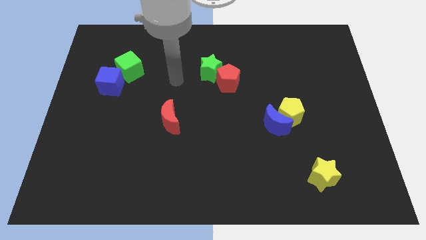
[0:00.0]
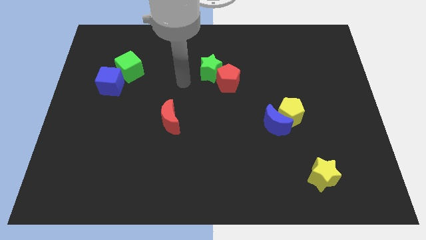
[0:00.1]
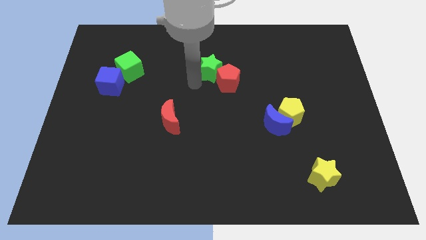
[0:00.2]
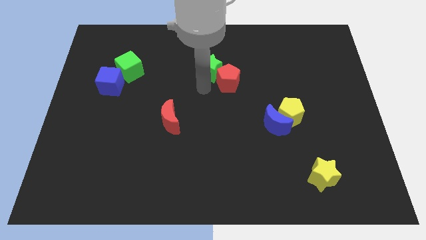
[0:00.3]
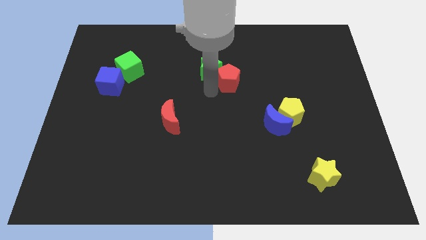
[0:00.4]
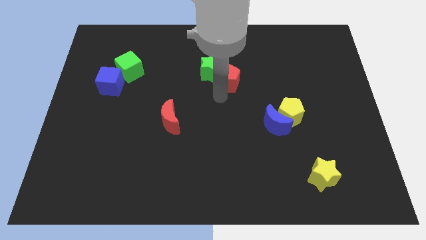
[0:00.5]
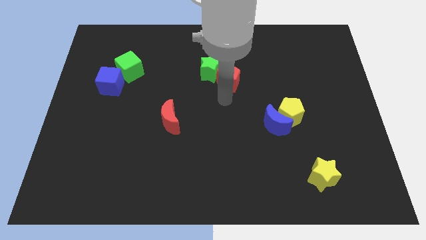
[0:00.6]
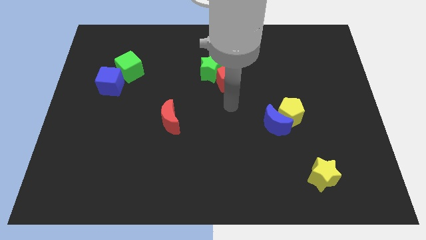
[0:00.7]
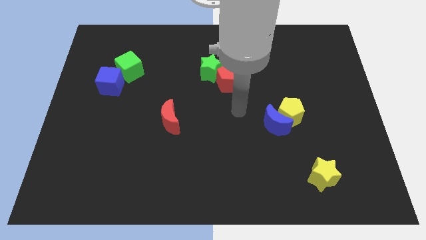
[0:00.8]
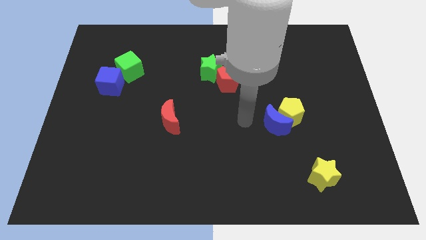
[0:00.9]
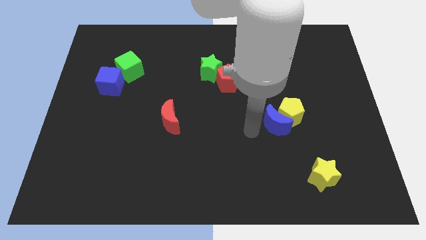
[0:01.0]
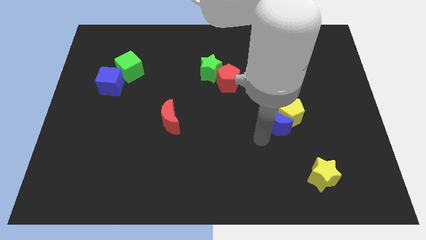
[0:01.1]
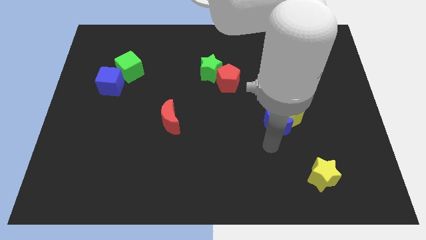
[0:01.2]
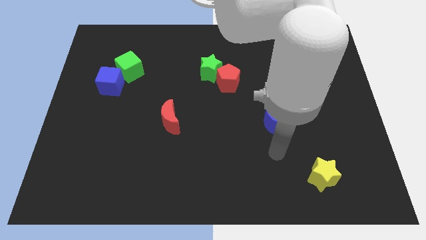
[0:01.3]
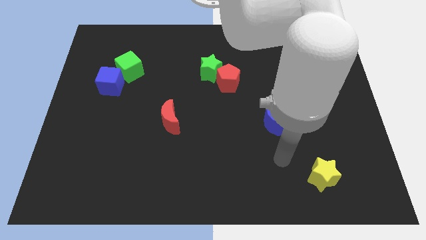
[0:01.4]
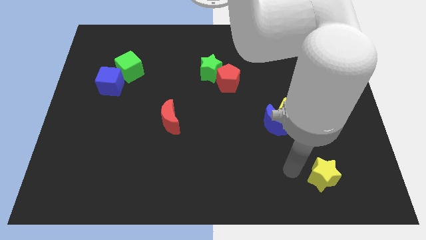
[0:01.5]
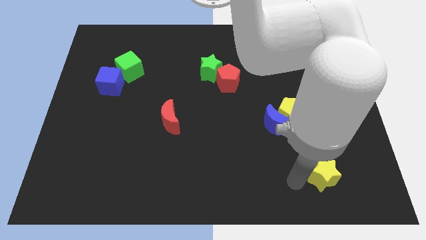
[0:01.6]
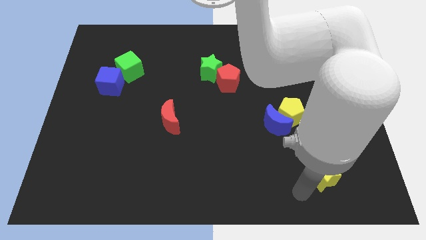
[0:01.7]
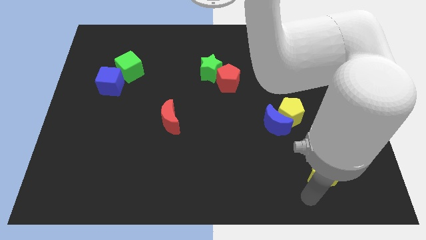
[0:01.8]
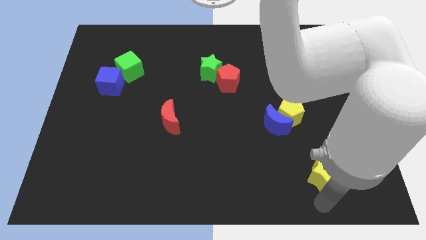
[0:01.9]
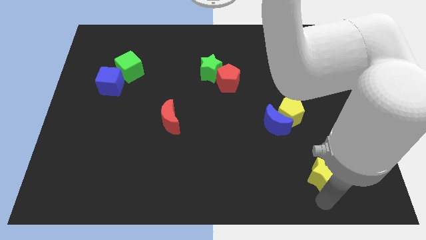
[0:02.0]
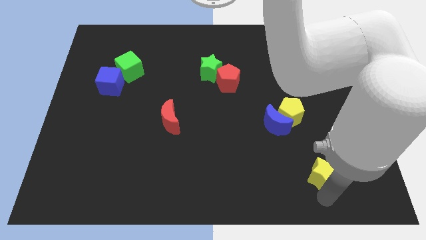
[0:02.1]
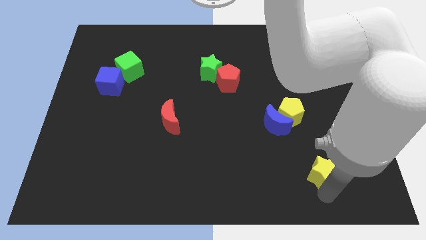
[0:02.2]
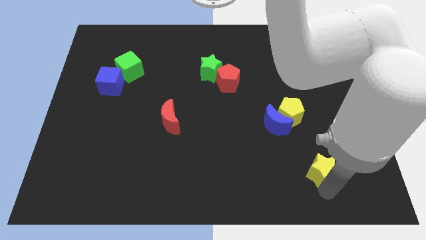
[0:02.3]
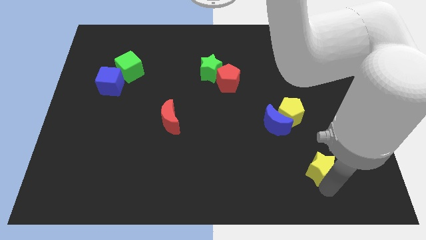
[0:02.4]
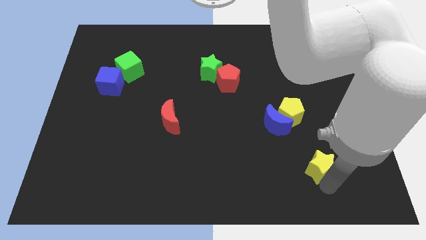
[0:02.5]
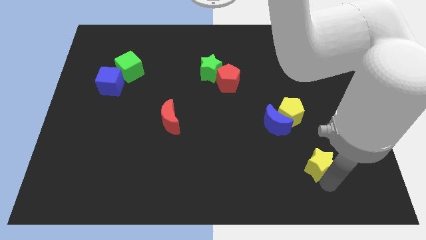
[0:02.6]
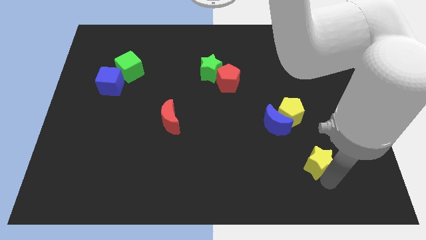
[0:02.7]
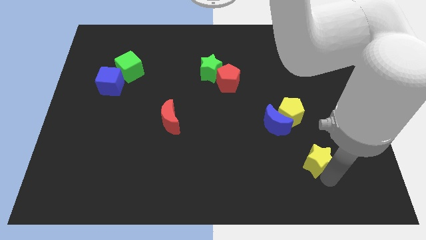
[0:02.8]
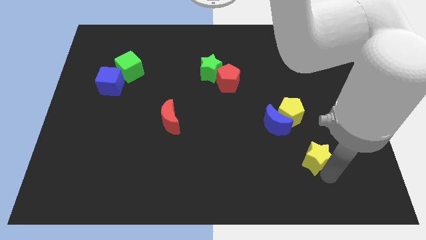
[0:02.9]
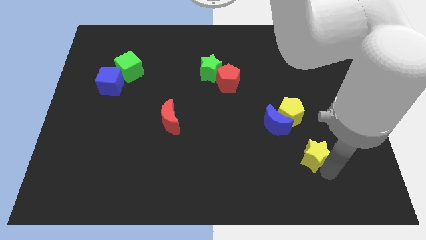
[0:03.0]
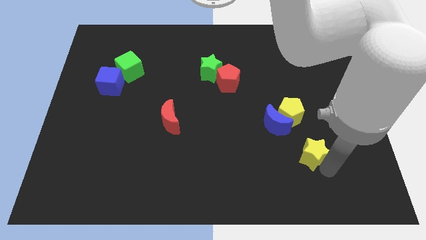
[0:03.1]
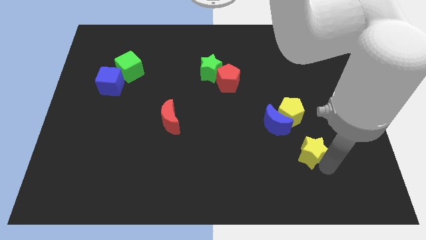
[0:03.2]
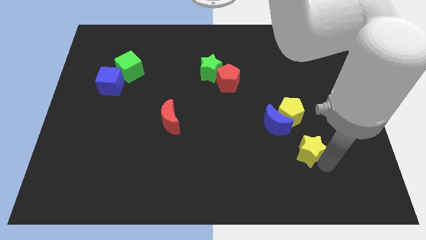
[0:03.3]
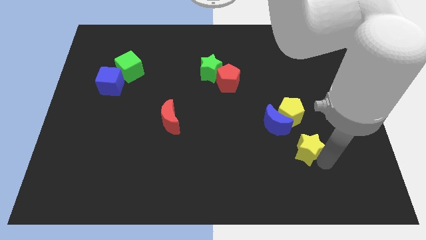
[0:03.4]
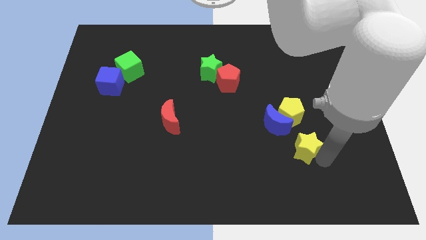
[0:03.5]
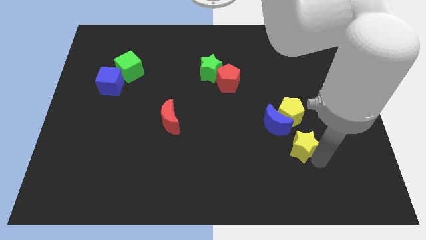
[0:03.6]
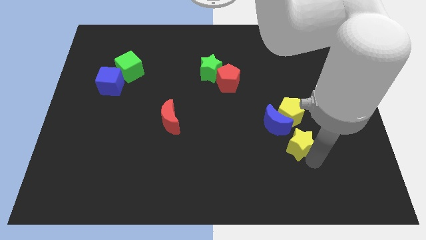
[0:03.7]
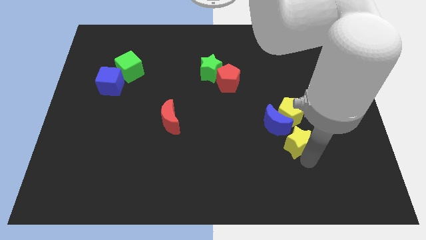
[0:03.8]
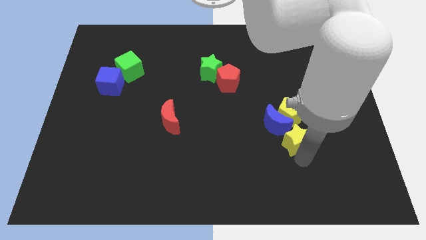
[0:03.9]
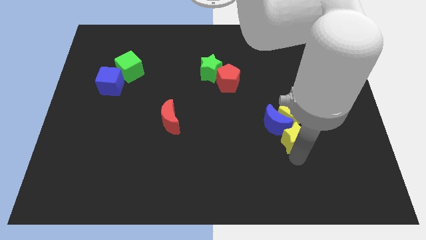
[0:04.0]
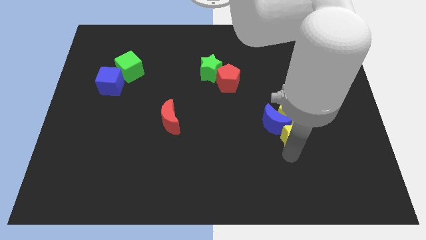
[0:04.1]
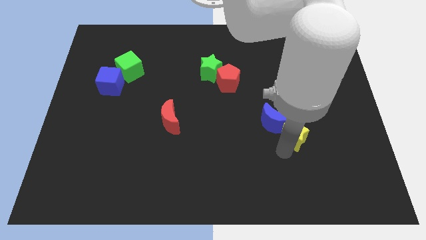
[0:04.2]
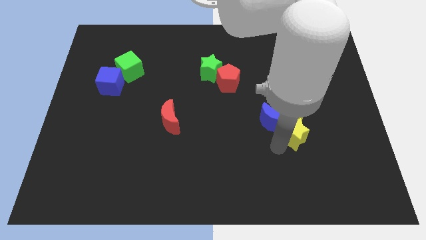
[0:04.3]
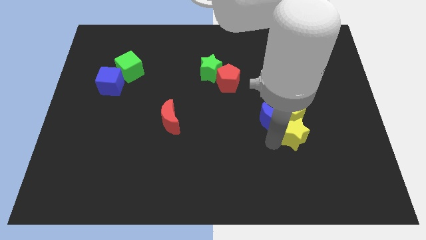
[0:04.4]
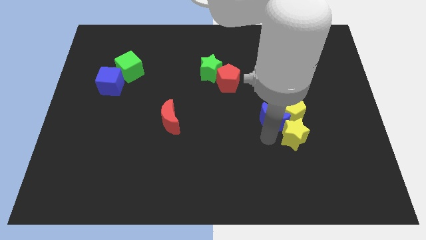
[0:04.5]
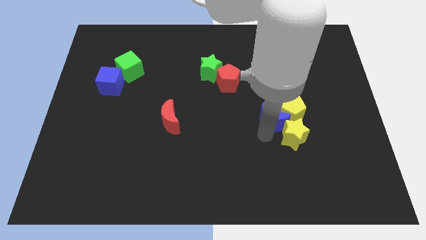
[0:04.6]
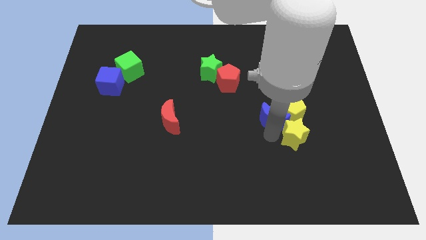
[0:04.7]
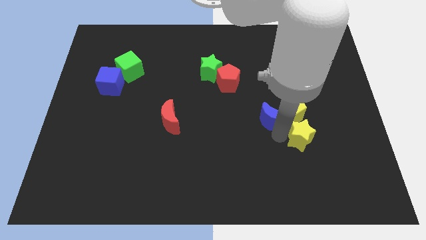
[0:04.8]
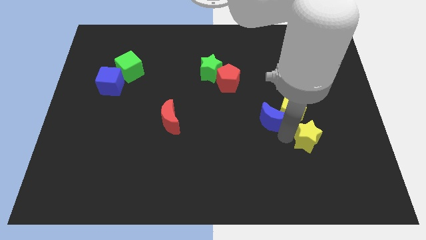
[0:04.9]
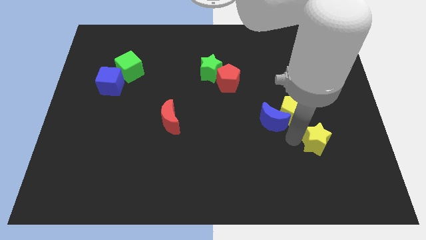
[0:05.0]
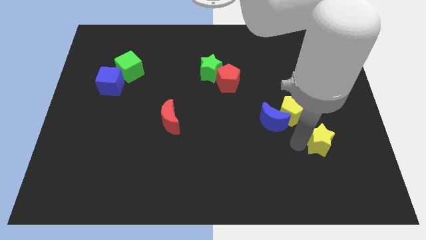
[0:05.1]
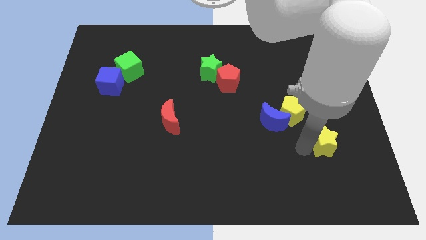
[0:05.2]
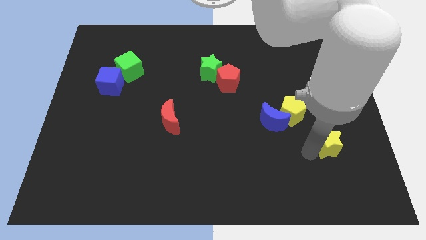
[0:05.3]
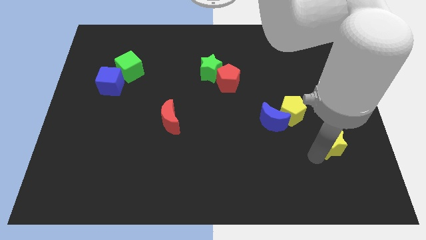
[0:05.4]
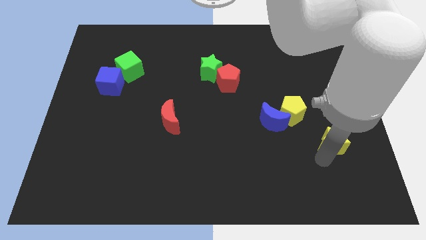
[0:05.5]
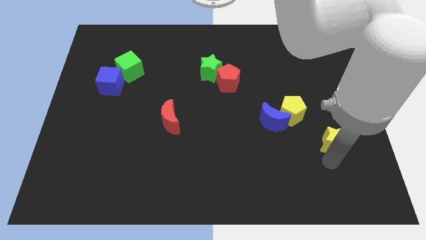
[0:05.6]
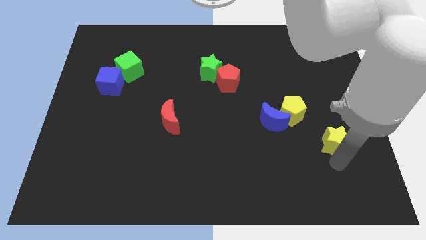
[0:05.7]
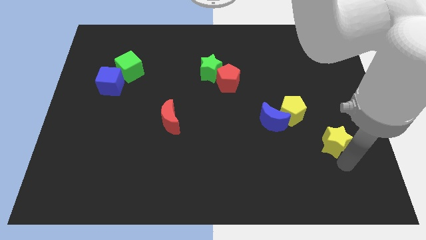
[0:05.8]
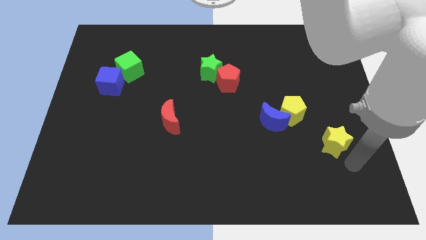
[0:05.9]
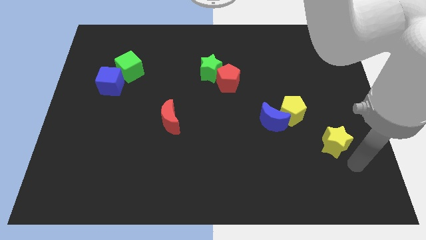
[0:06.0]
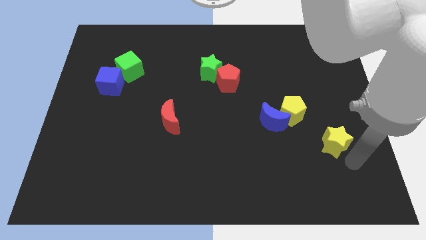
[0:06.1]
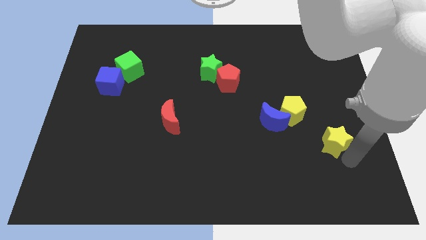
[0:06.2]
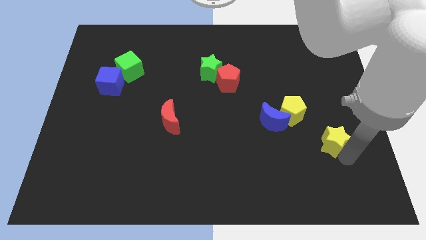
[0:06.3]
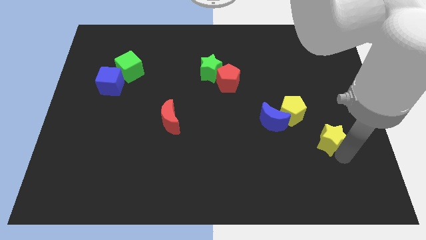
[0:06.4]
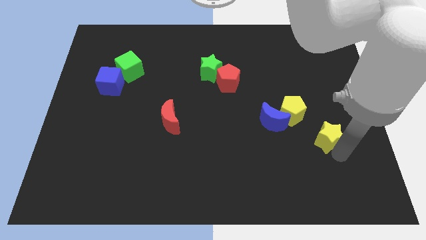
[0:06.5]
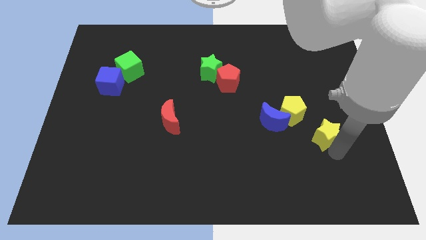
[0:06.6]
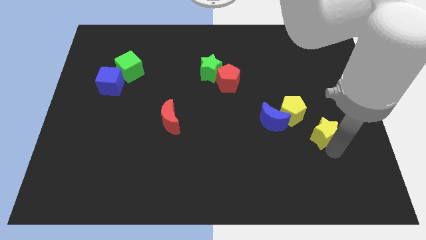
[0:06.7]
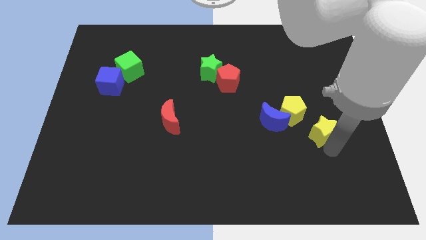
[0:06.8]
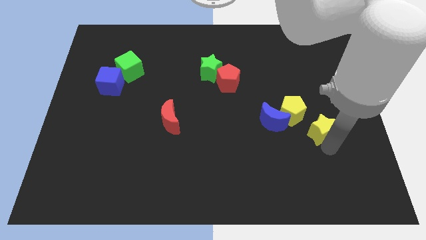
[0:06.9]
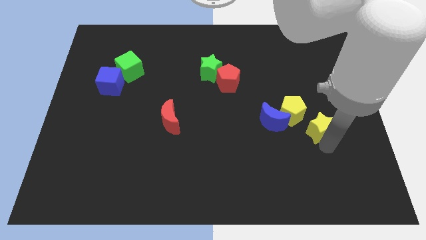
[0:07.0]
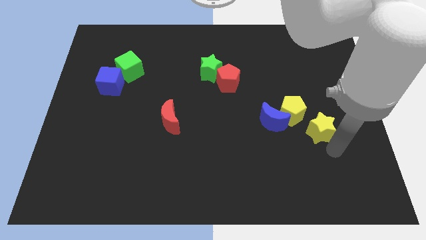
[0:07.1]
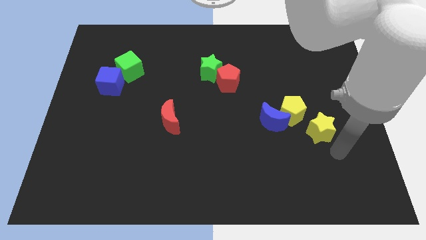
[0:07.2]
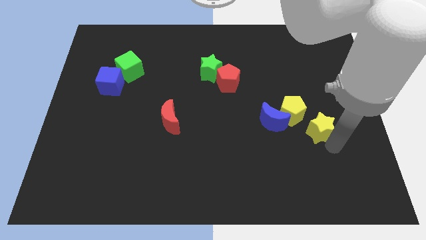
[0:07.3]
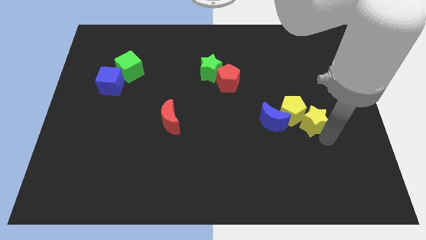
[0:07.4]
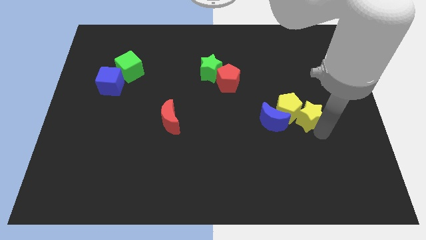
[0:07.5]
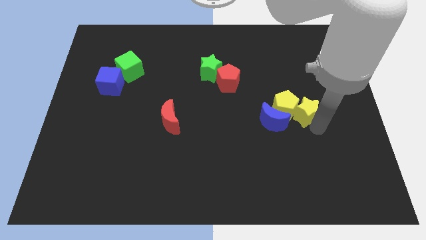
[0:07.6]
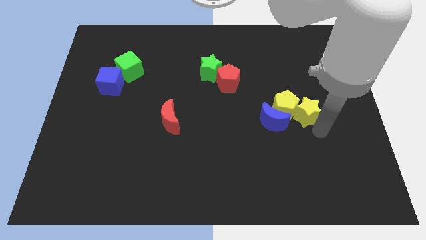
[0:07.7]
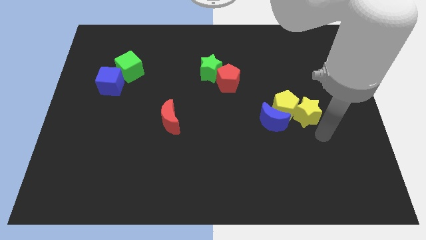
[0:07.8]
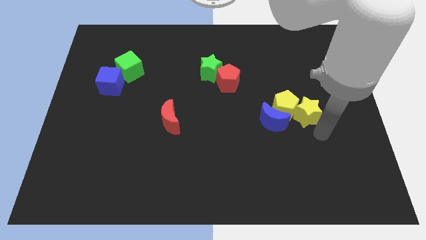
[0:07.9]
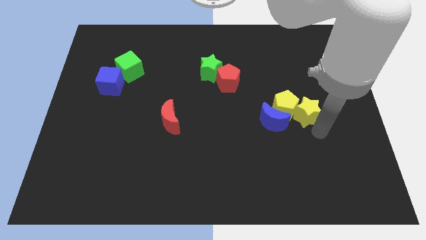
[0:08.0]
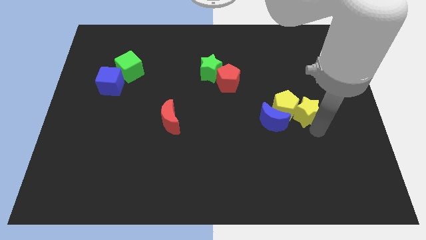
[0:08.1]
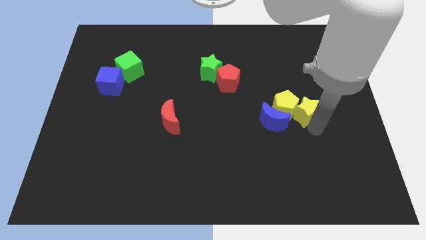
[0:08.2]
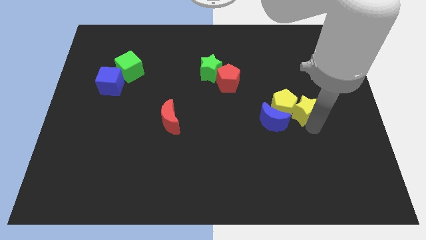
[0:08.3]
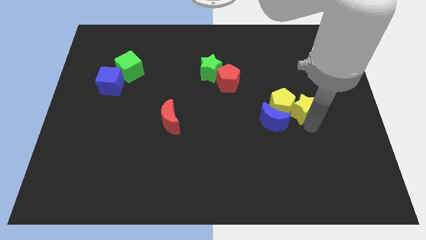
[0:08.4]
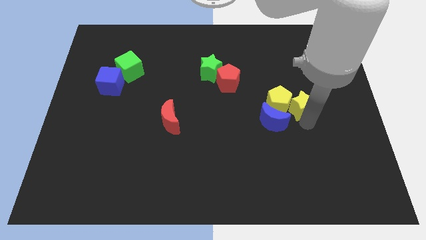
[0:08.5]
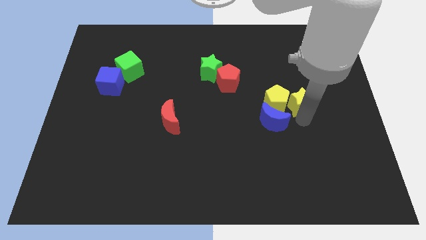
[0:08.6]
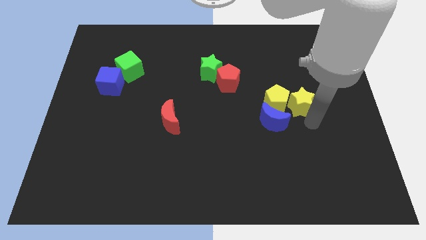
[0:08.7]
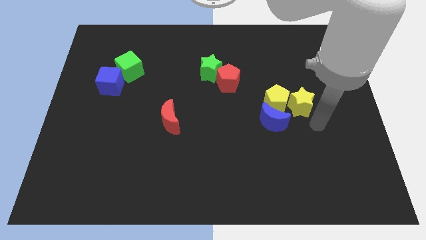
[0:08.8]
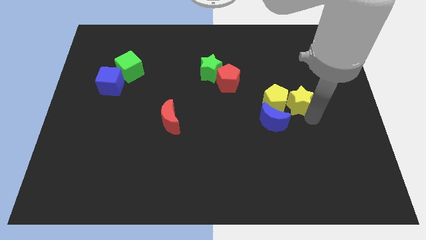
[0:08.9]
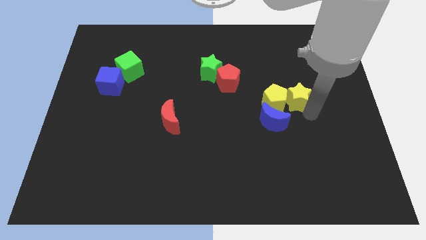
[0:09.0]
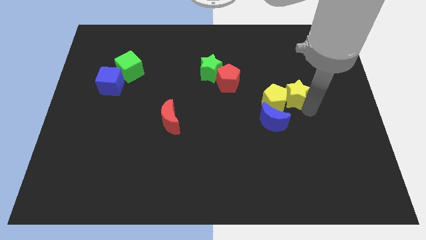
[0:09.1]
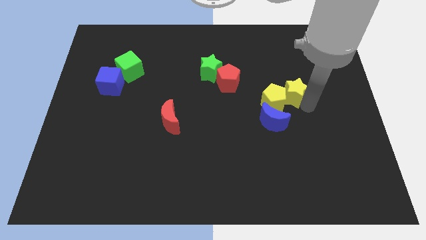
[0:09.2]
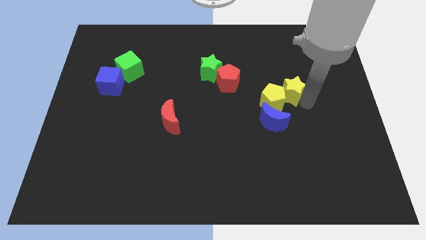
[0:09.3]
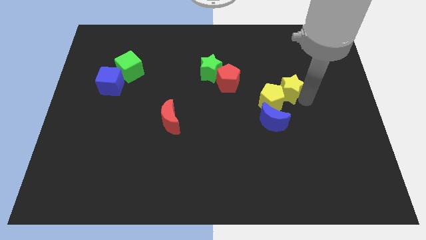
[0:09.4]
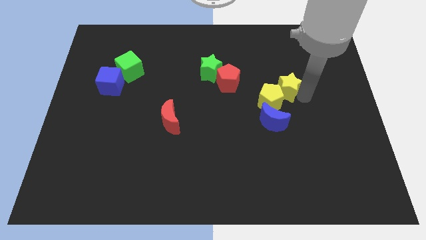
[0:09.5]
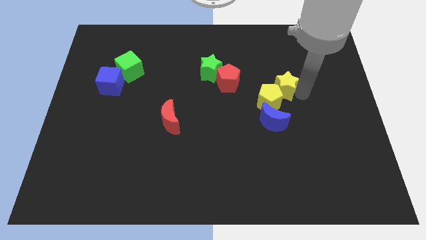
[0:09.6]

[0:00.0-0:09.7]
push the yellow star to the top of the yellow pentagon
